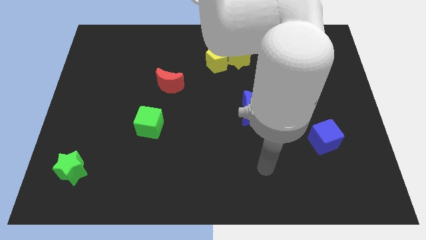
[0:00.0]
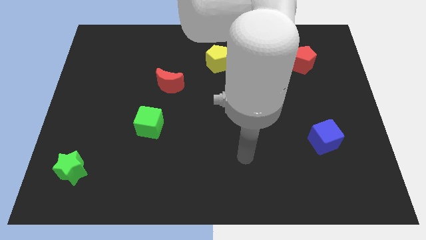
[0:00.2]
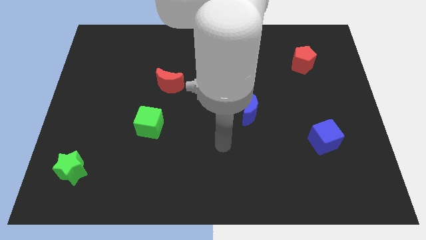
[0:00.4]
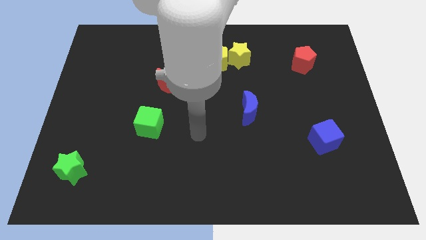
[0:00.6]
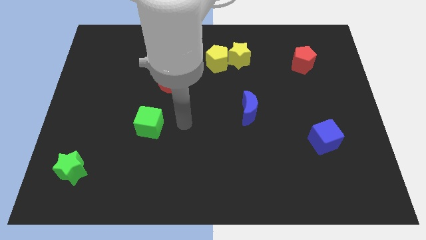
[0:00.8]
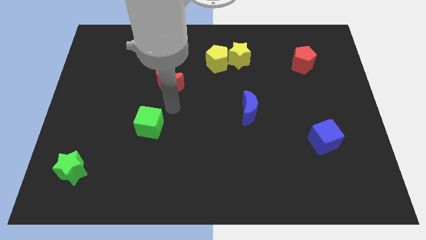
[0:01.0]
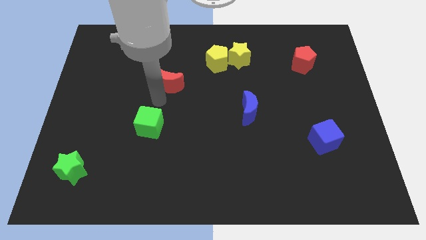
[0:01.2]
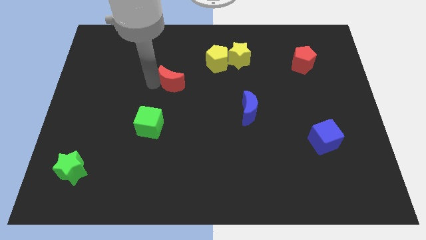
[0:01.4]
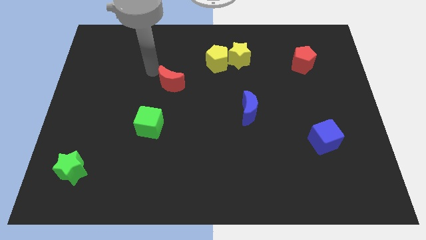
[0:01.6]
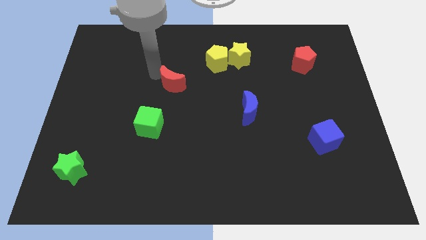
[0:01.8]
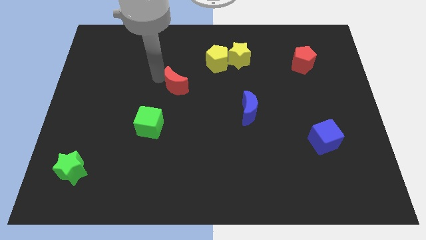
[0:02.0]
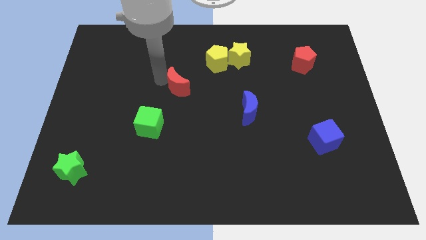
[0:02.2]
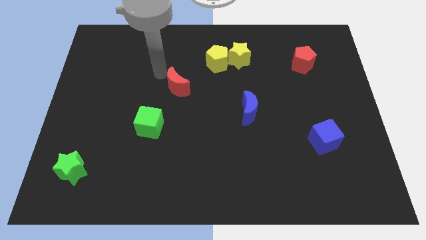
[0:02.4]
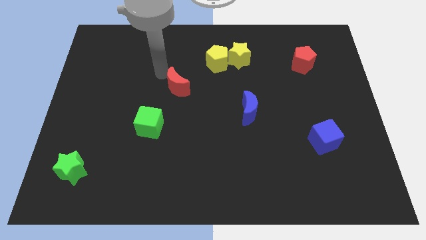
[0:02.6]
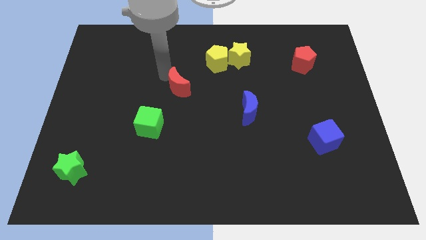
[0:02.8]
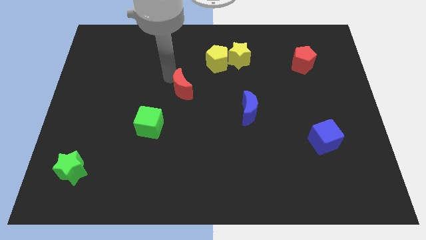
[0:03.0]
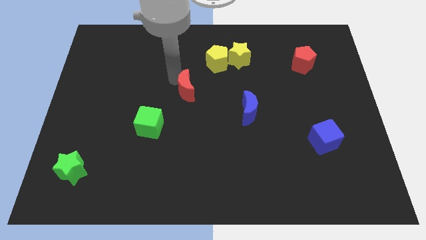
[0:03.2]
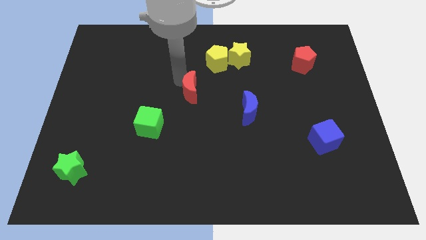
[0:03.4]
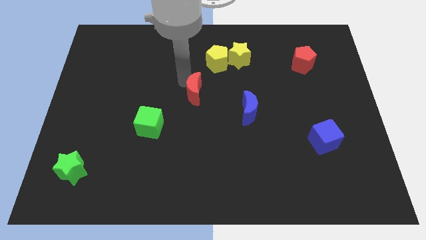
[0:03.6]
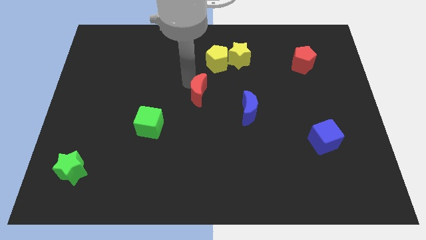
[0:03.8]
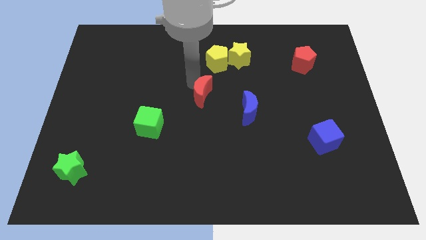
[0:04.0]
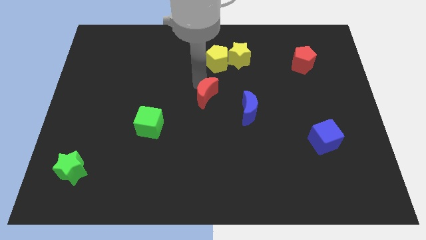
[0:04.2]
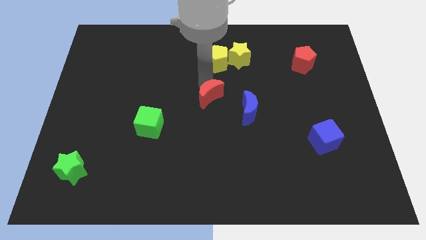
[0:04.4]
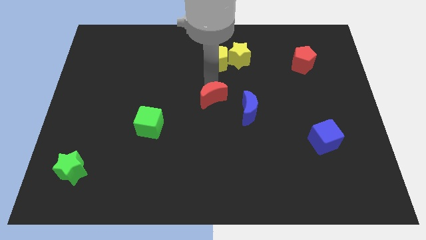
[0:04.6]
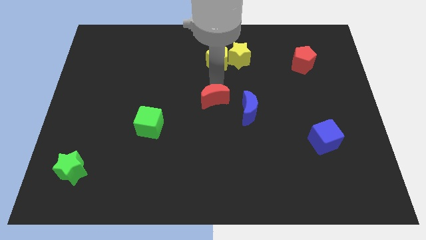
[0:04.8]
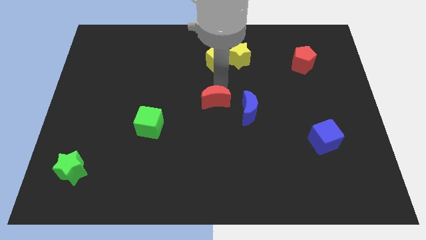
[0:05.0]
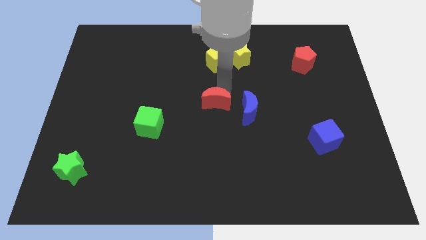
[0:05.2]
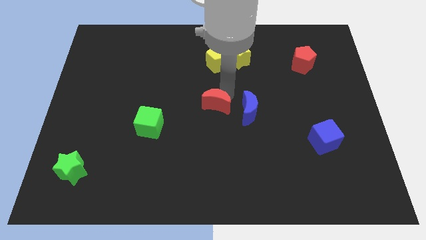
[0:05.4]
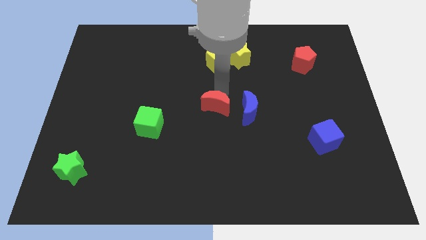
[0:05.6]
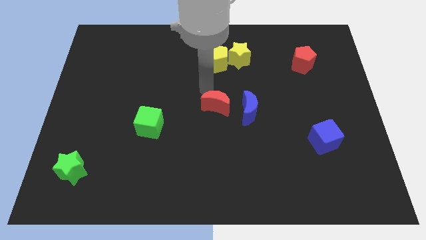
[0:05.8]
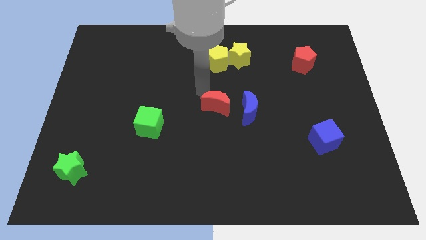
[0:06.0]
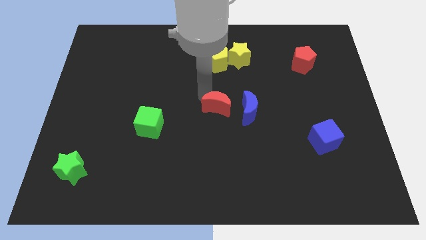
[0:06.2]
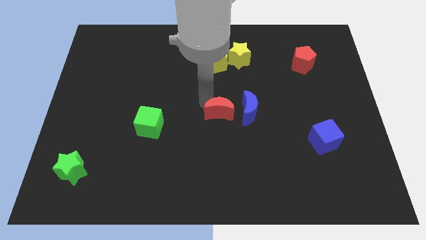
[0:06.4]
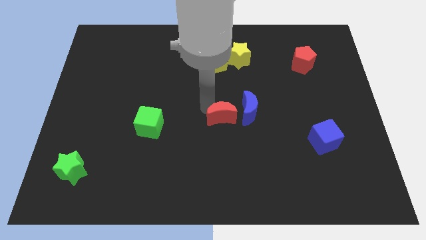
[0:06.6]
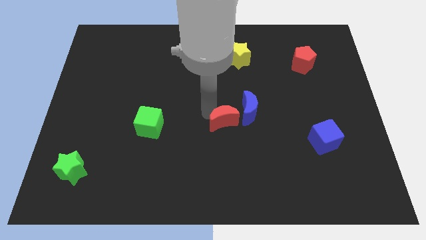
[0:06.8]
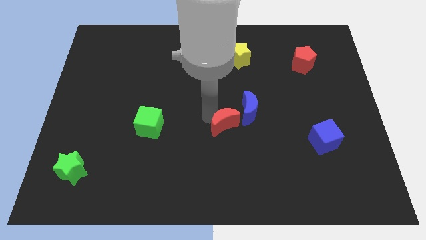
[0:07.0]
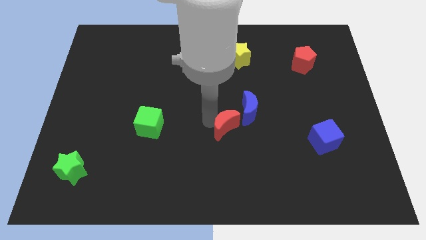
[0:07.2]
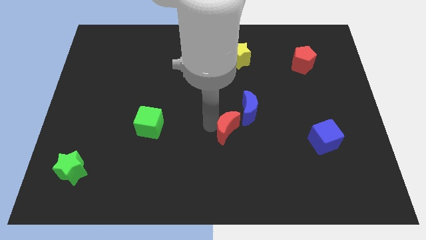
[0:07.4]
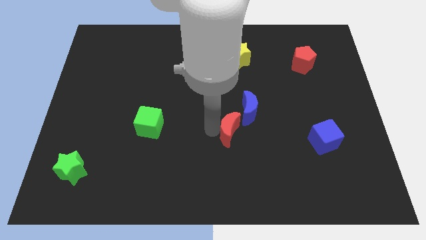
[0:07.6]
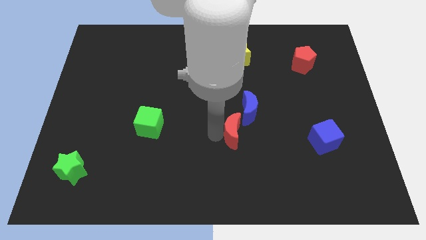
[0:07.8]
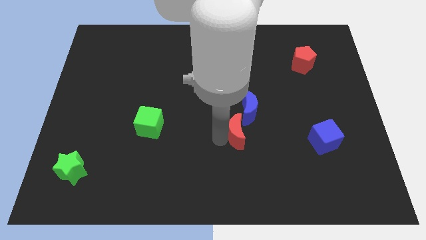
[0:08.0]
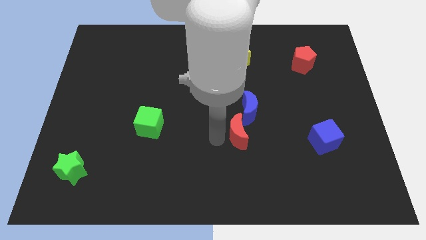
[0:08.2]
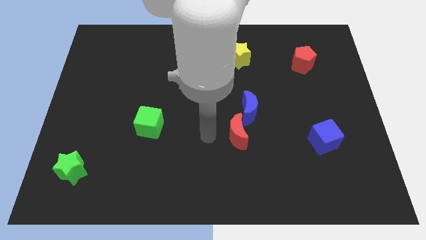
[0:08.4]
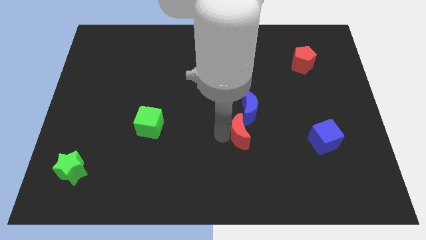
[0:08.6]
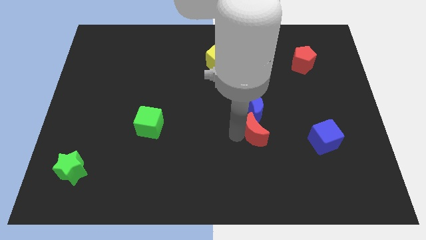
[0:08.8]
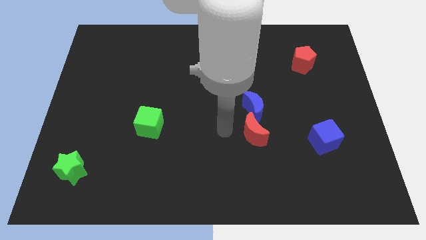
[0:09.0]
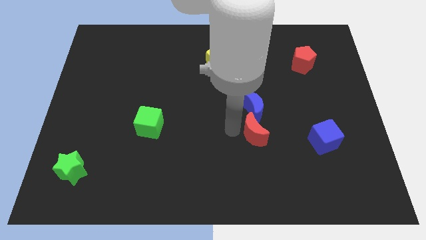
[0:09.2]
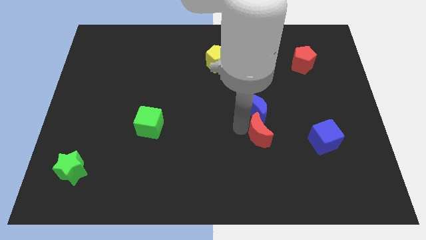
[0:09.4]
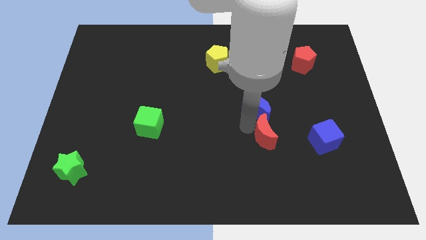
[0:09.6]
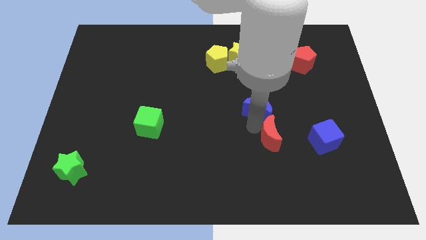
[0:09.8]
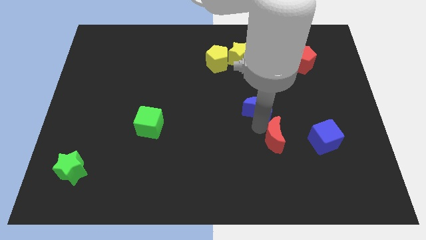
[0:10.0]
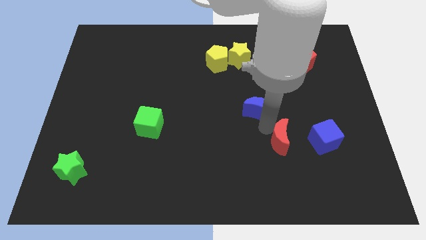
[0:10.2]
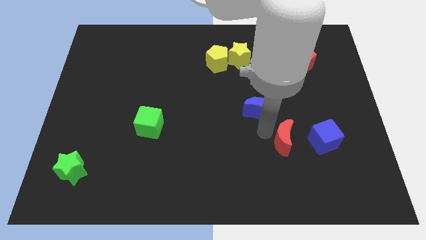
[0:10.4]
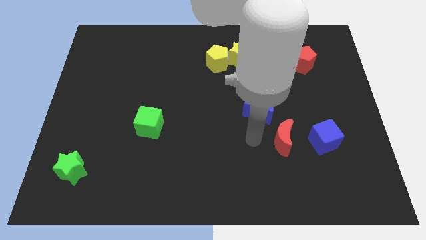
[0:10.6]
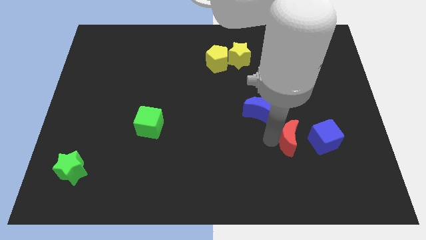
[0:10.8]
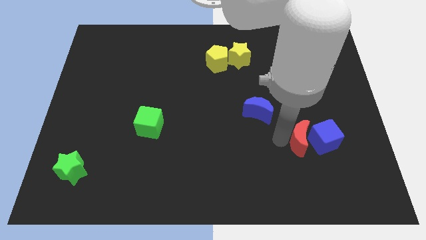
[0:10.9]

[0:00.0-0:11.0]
move the red moon to the blue cube

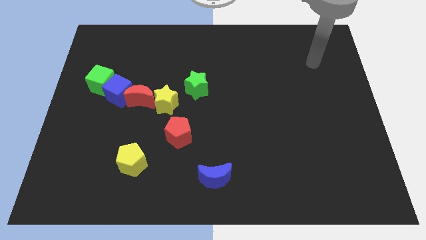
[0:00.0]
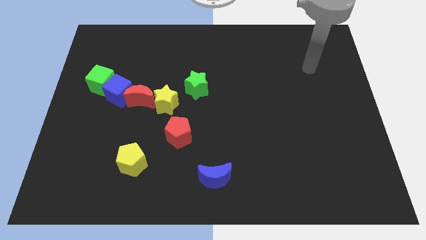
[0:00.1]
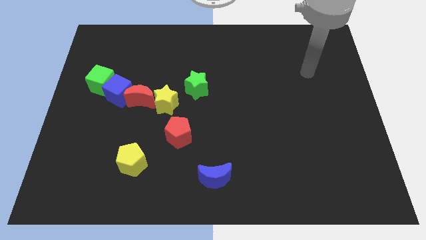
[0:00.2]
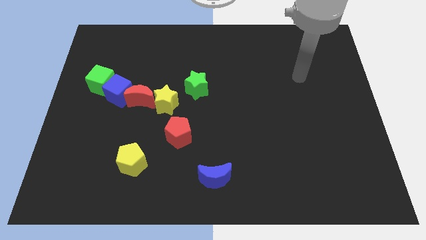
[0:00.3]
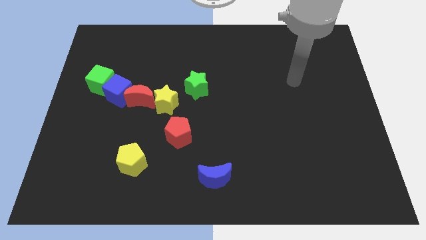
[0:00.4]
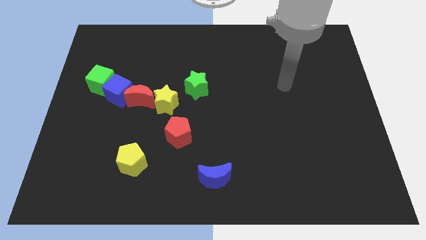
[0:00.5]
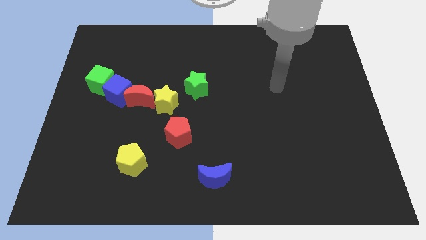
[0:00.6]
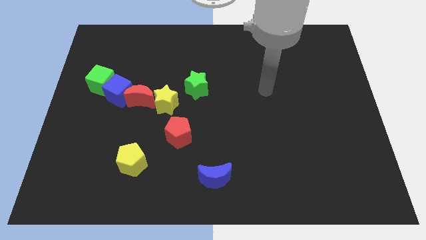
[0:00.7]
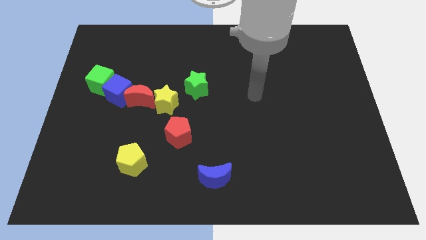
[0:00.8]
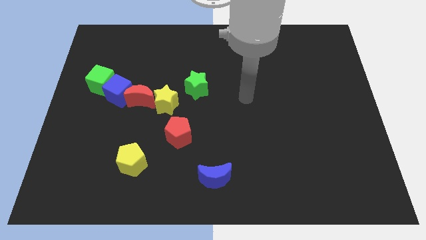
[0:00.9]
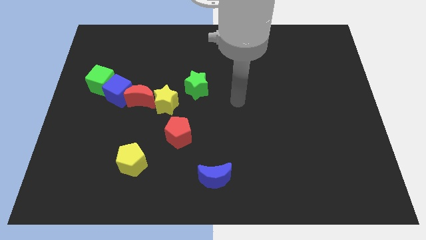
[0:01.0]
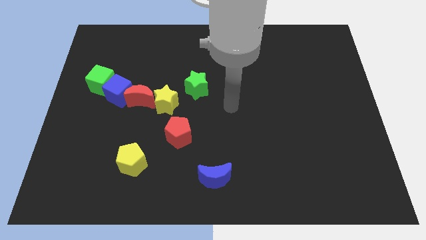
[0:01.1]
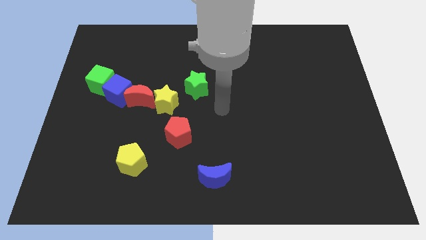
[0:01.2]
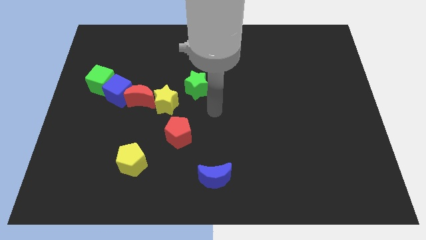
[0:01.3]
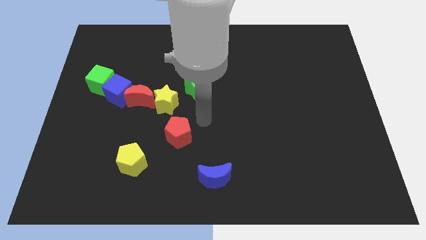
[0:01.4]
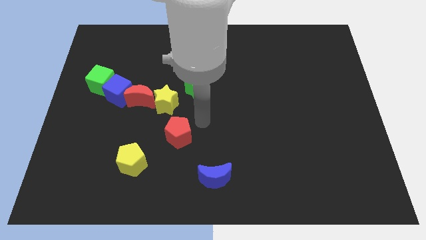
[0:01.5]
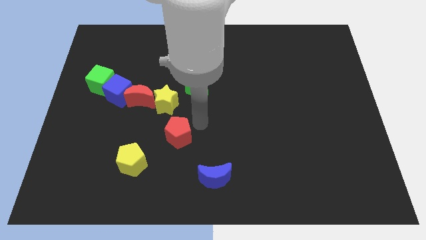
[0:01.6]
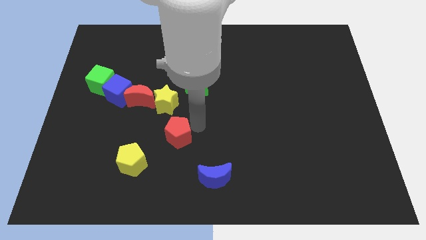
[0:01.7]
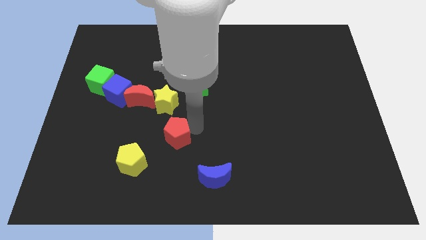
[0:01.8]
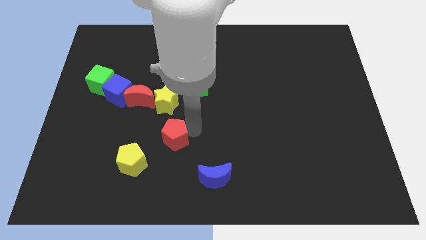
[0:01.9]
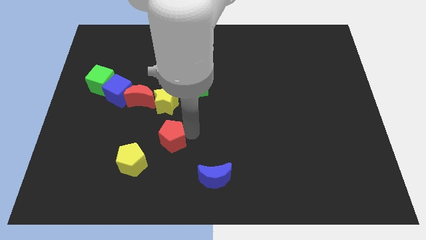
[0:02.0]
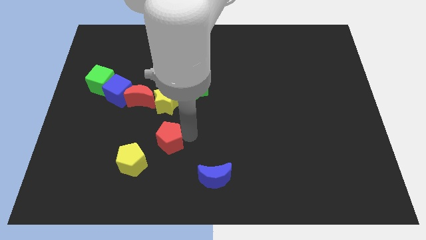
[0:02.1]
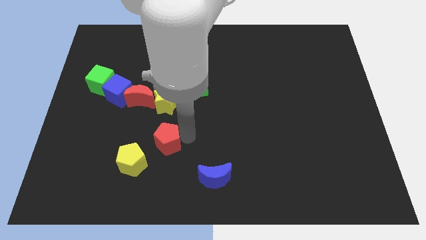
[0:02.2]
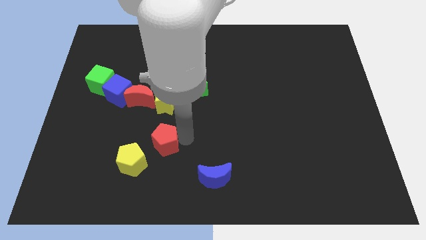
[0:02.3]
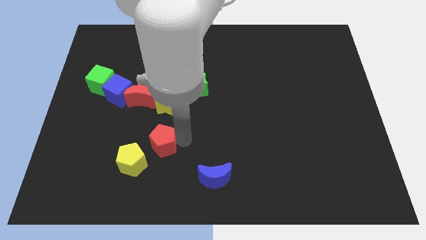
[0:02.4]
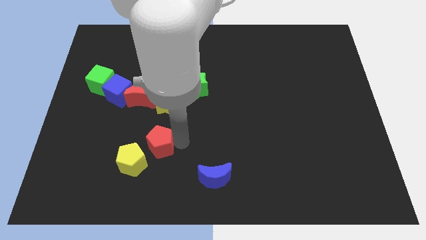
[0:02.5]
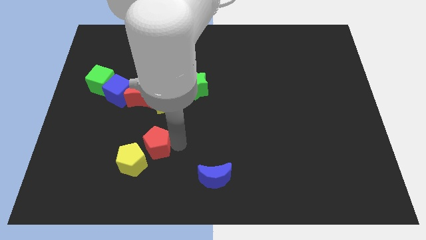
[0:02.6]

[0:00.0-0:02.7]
push the red pentagon towards the yellow pentagon
